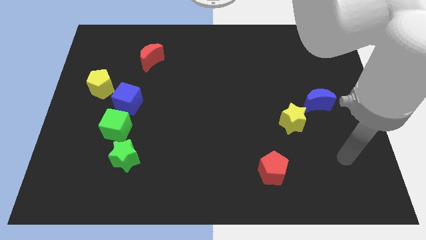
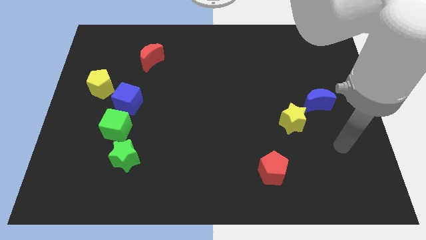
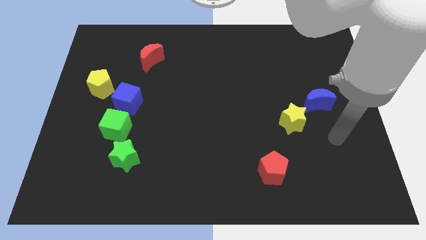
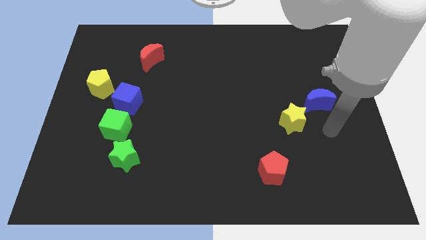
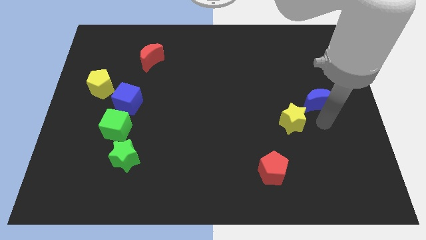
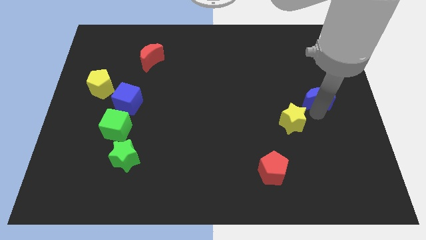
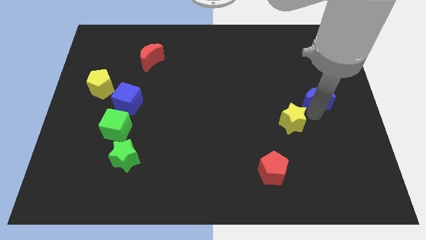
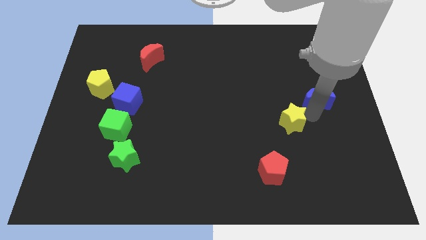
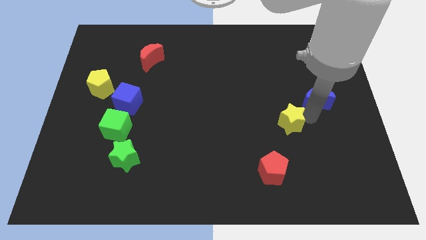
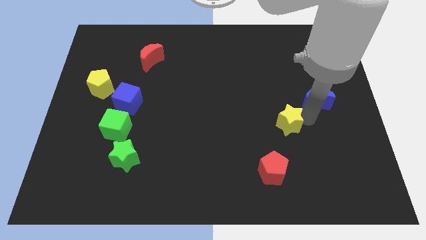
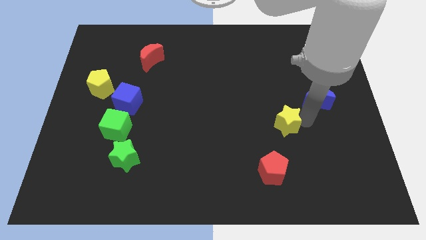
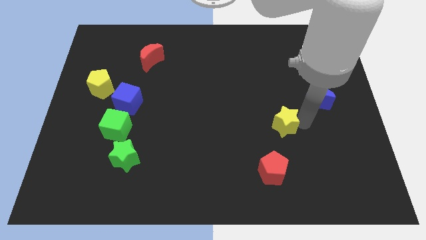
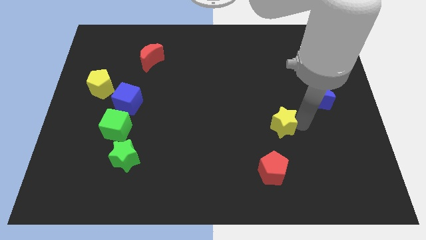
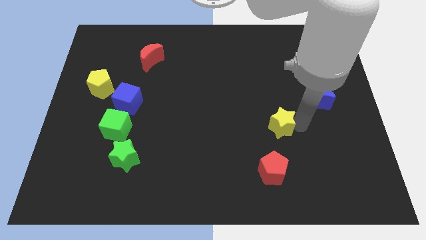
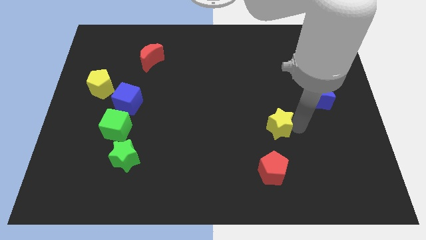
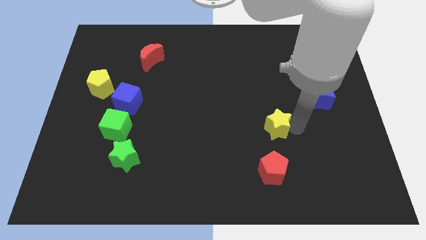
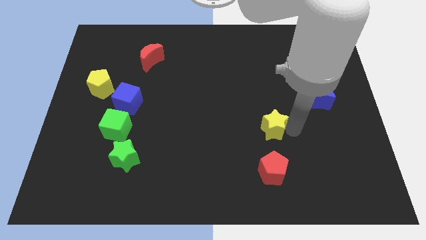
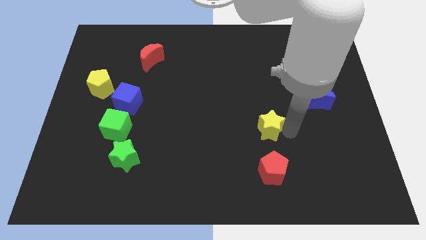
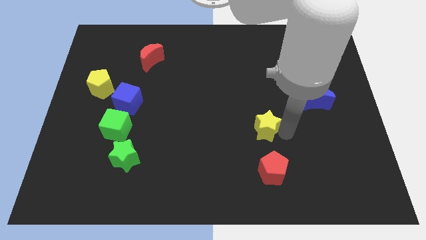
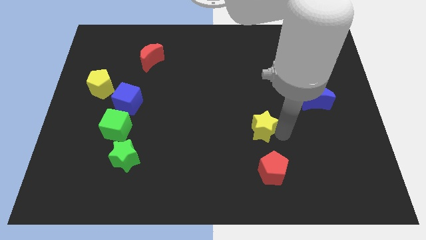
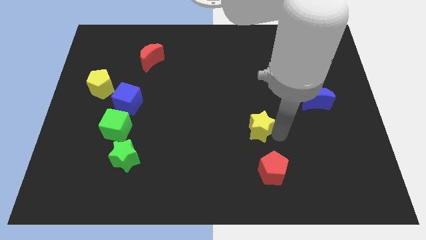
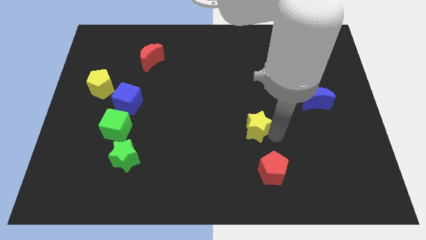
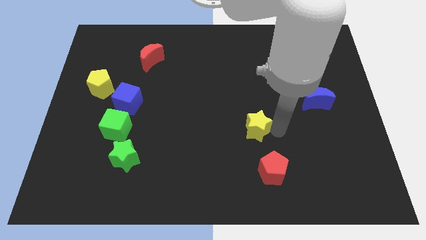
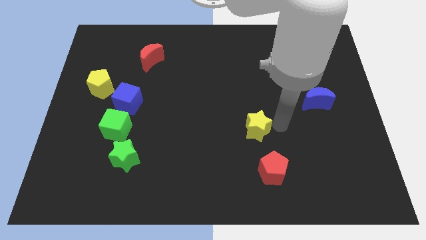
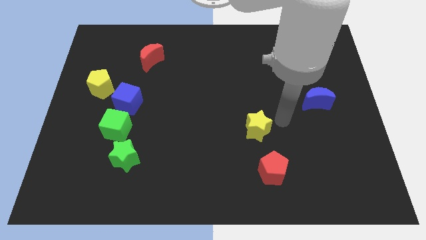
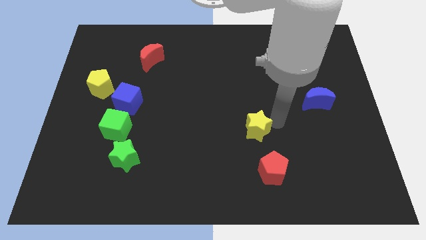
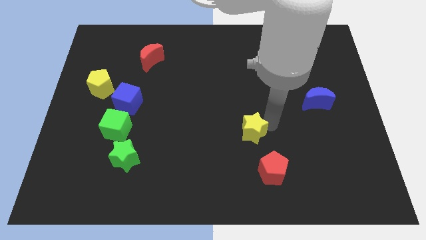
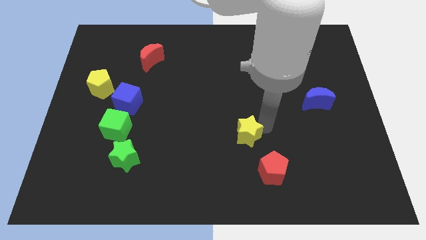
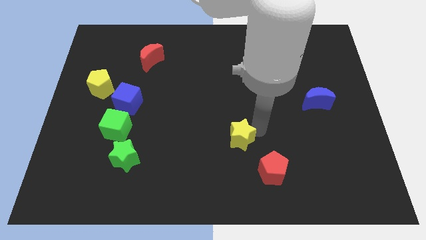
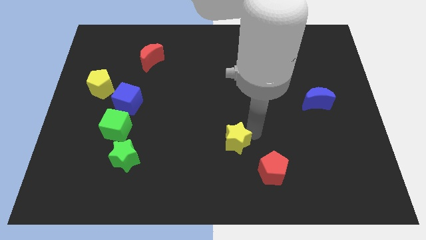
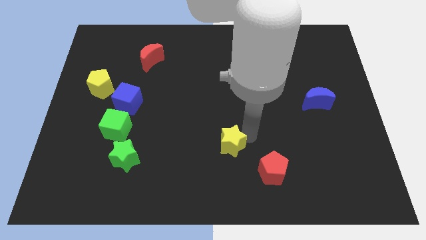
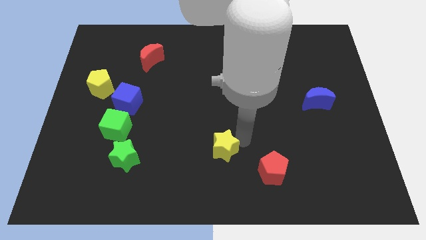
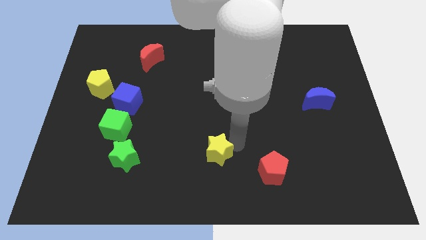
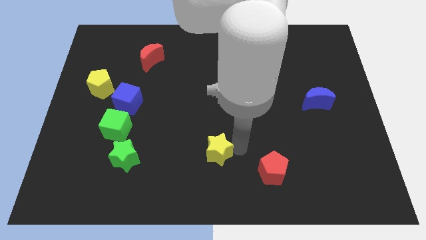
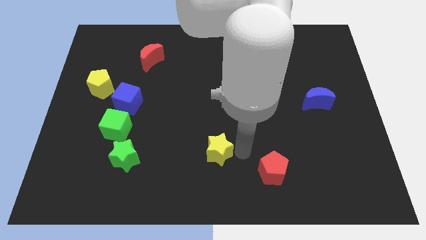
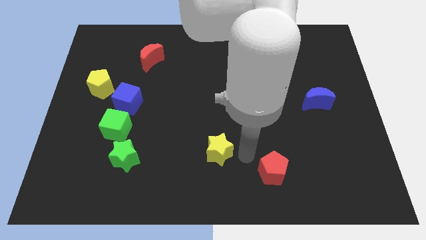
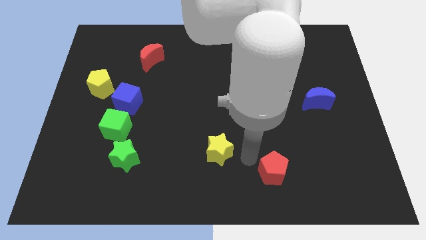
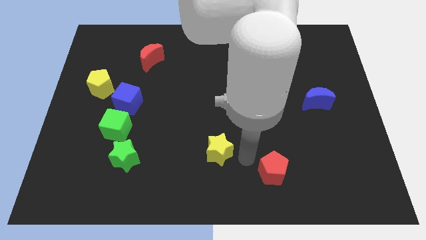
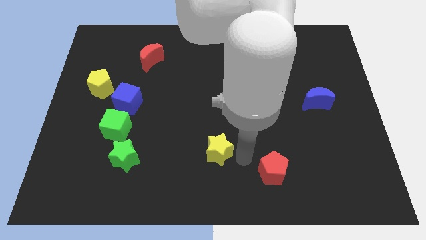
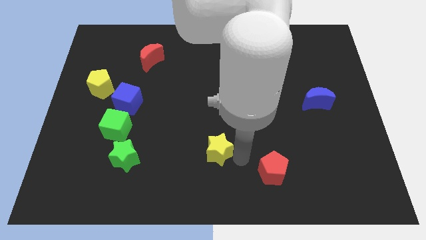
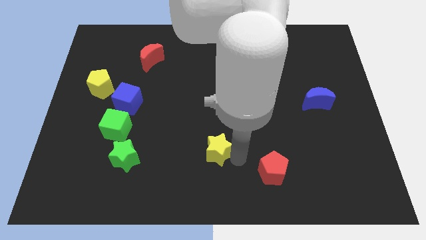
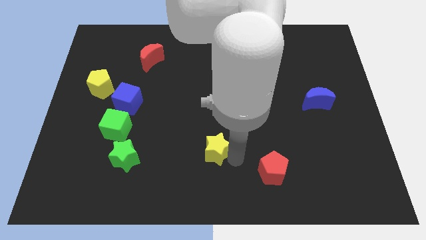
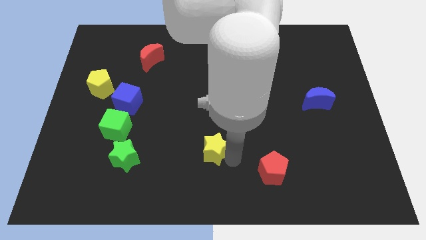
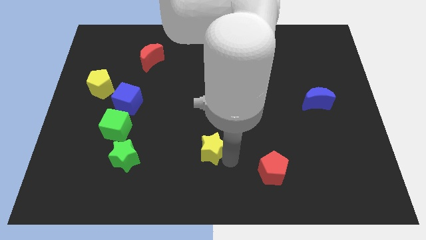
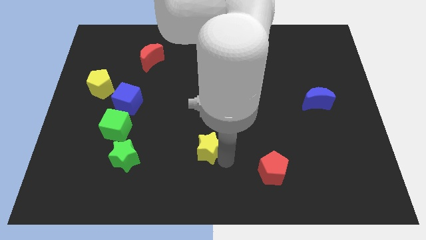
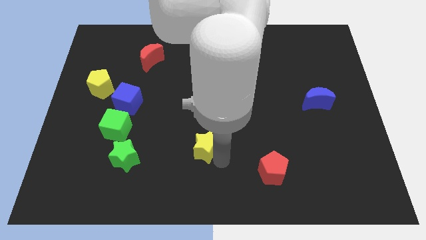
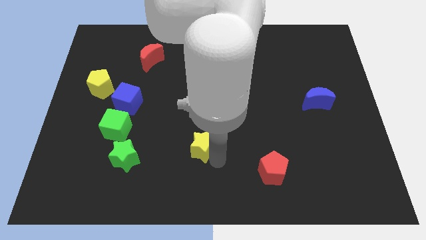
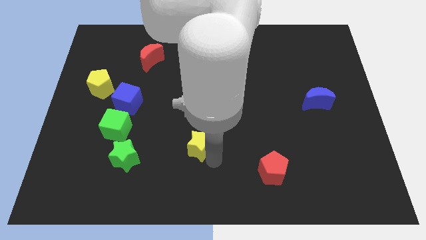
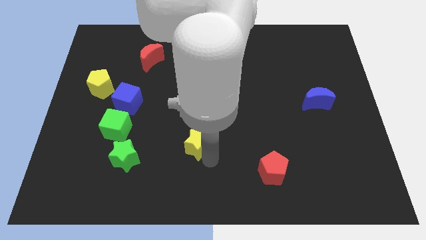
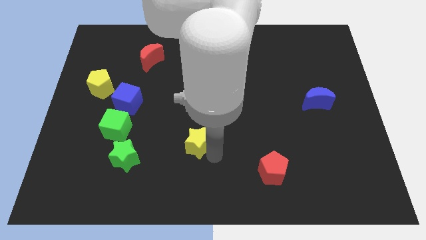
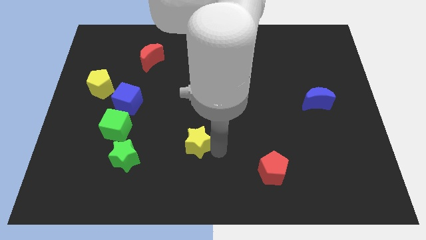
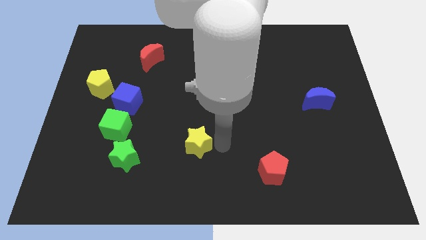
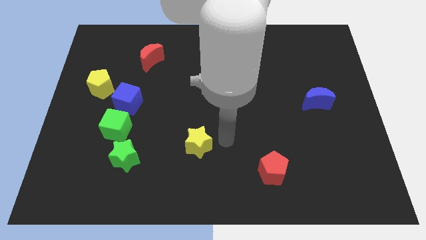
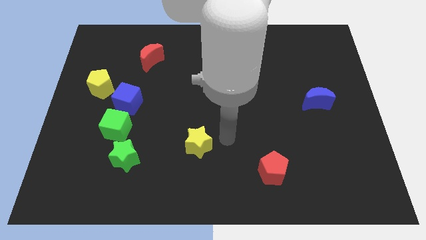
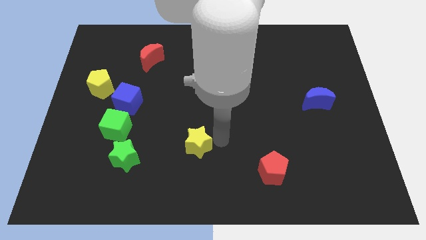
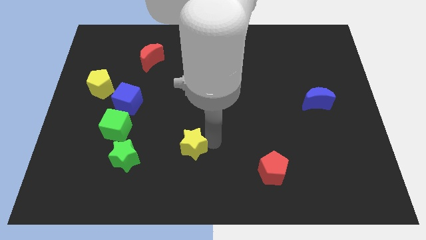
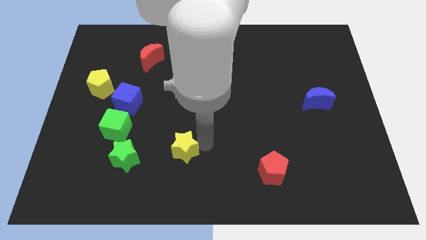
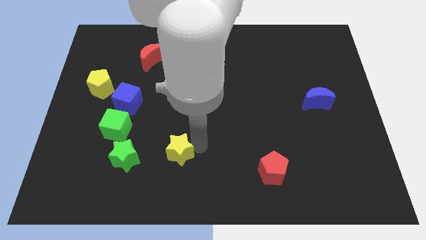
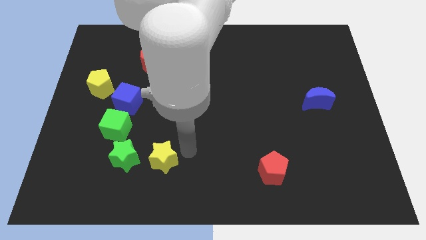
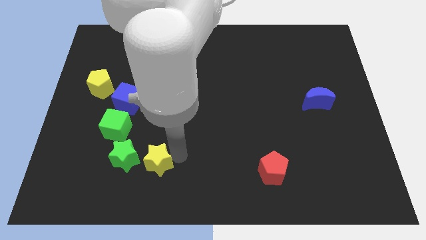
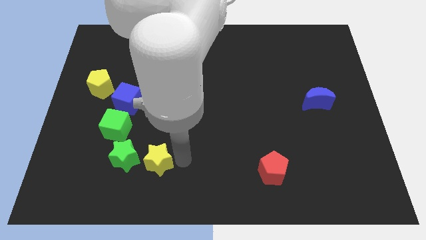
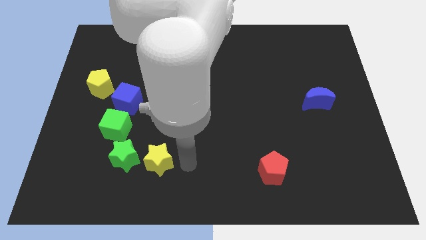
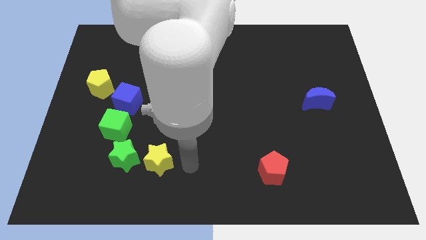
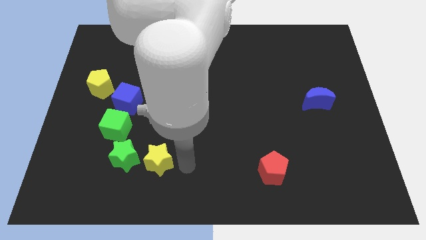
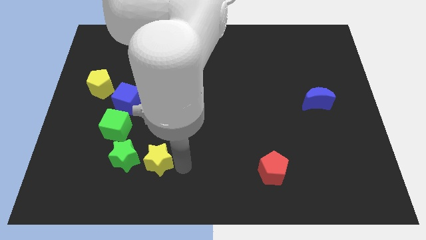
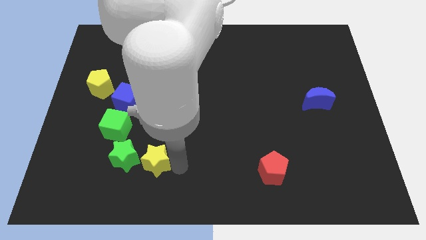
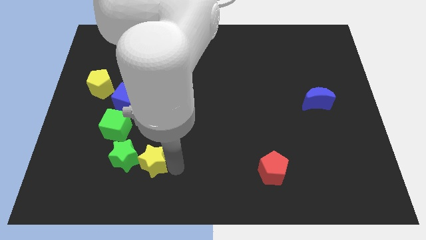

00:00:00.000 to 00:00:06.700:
put the yellow star close to the green star

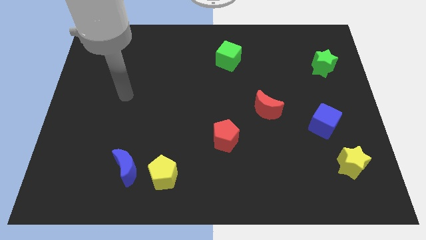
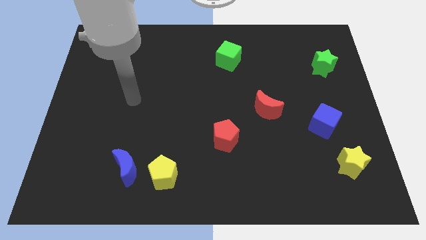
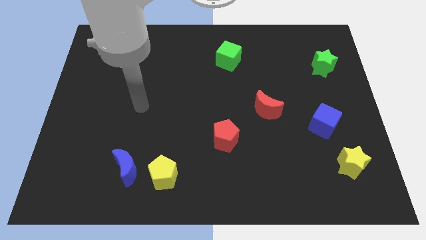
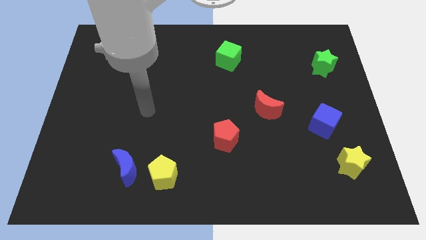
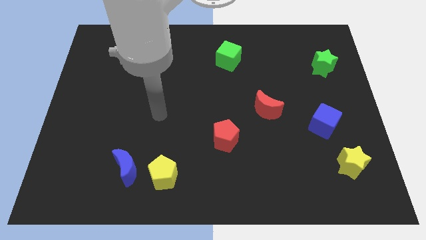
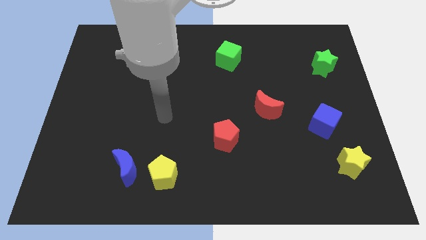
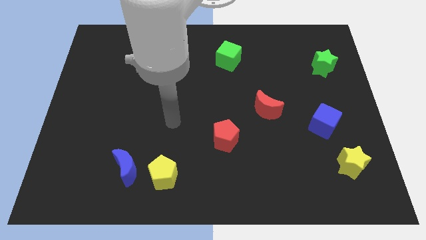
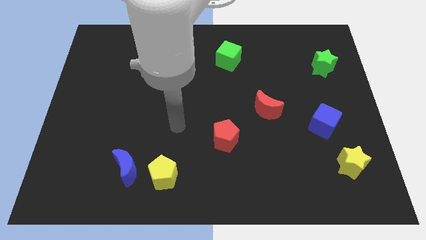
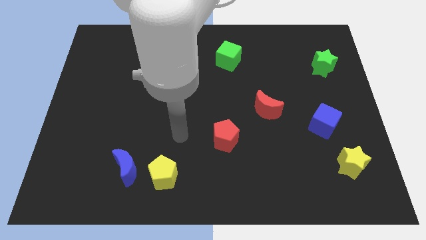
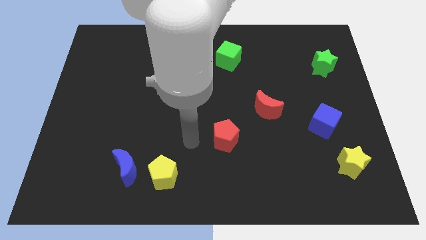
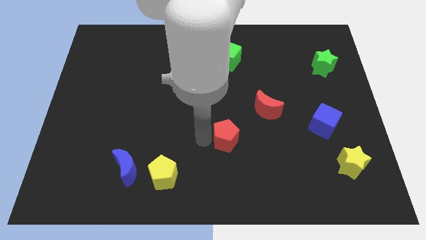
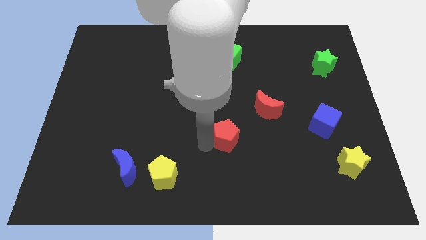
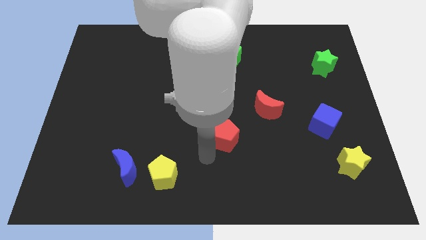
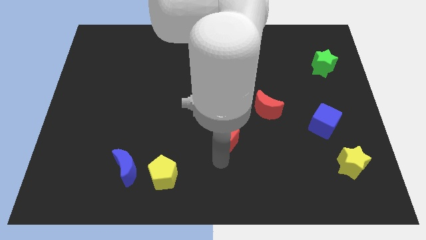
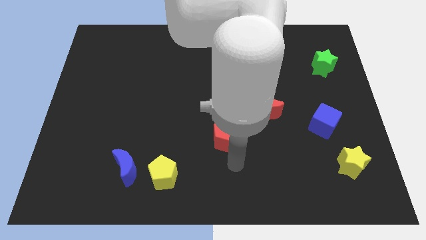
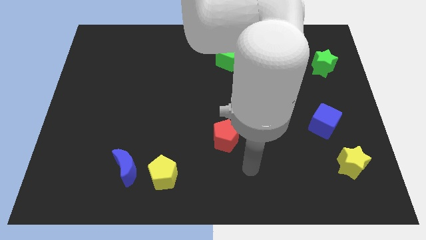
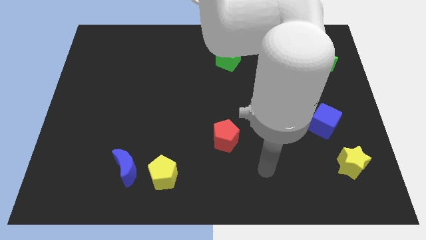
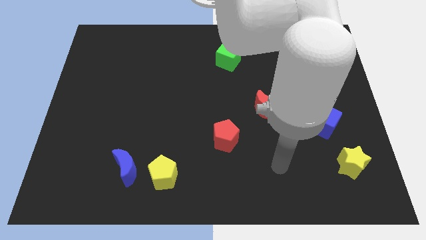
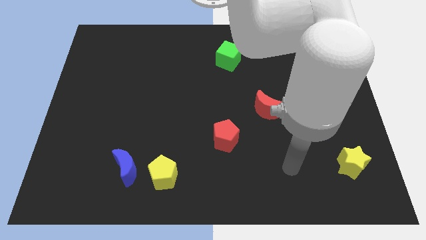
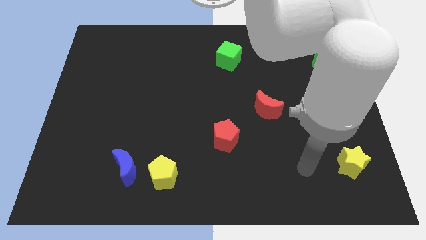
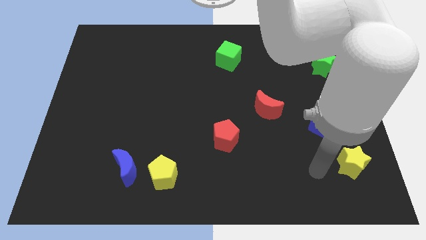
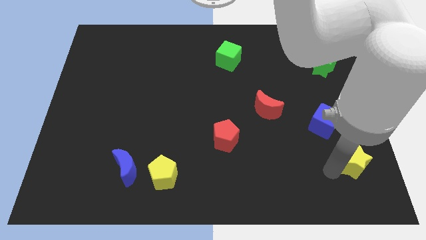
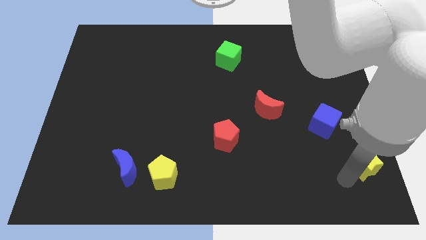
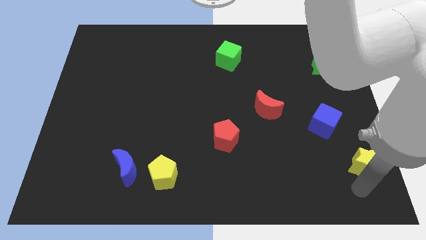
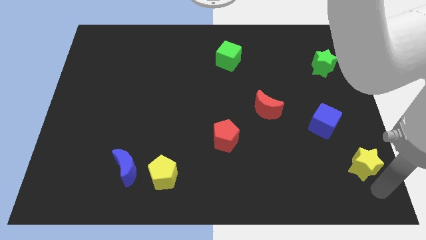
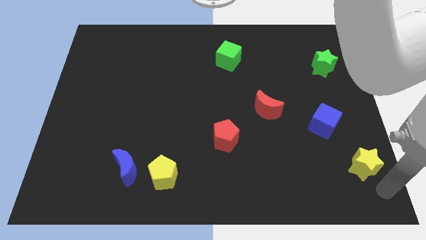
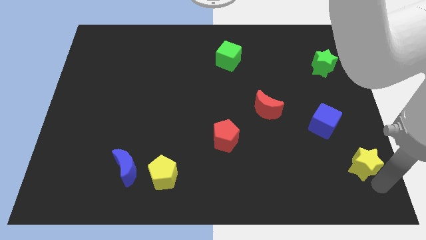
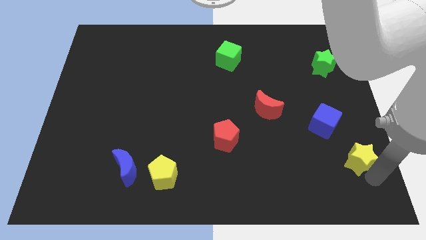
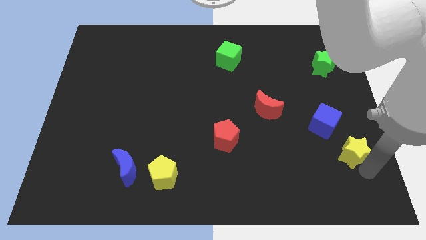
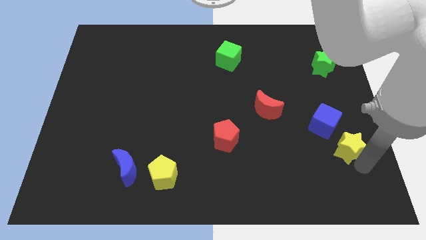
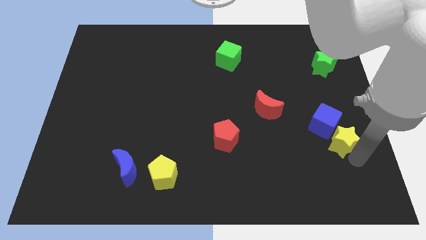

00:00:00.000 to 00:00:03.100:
slide the yellow star next to the blue cube
